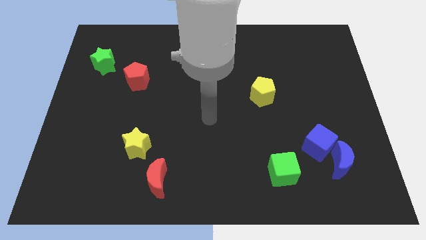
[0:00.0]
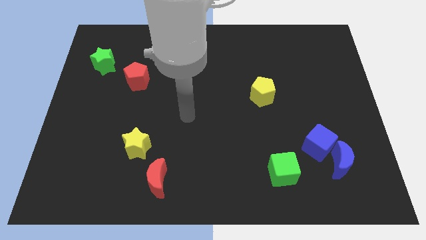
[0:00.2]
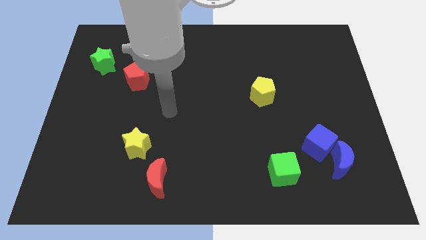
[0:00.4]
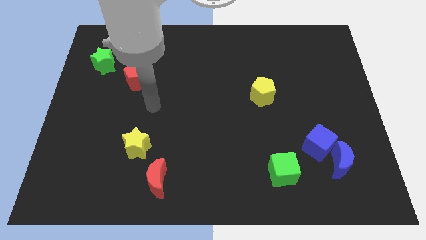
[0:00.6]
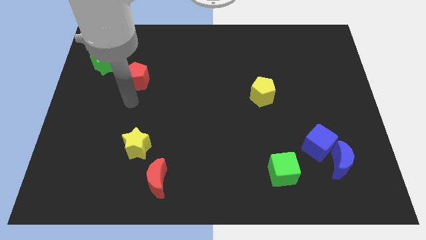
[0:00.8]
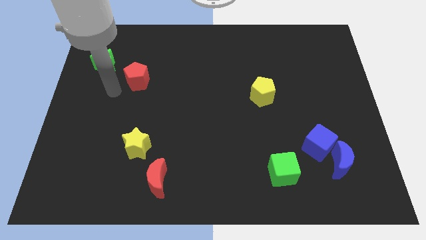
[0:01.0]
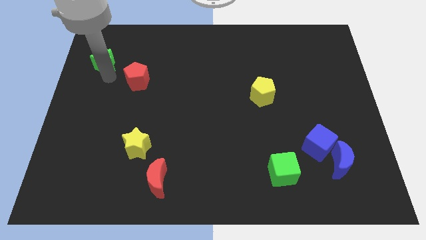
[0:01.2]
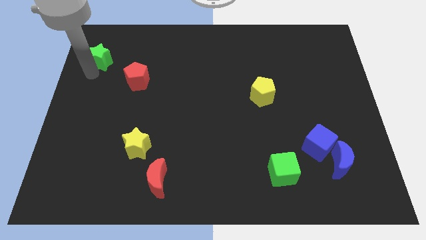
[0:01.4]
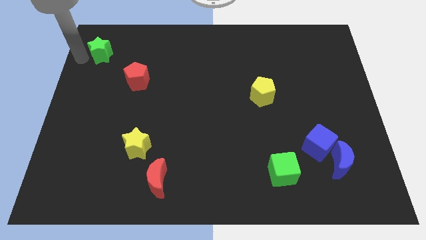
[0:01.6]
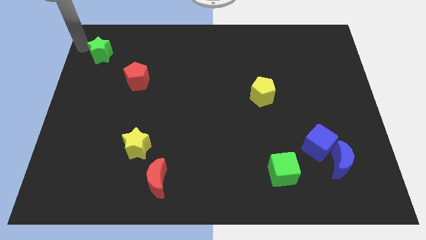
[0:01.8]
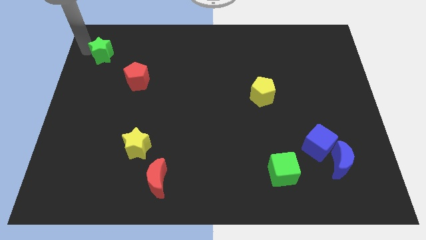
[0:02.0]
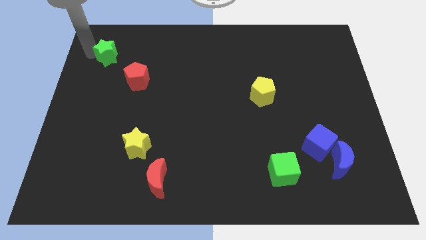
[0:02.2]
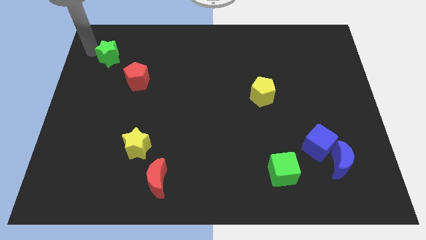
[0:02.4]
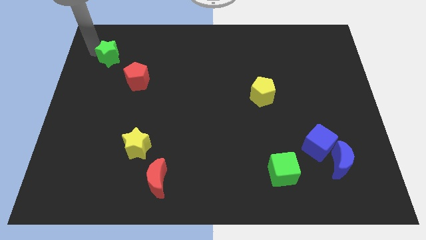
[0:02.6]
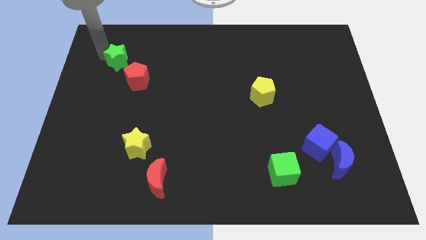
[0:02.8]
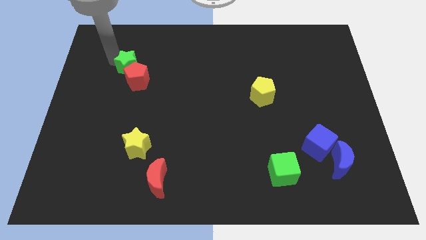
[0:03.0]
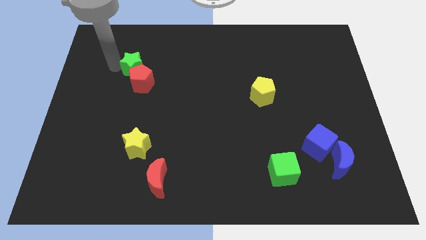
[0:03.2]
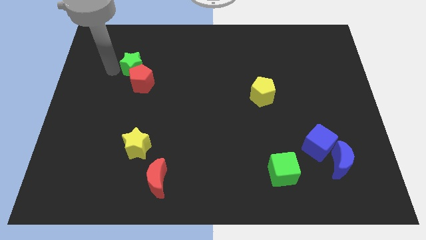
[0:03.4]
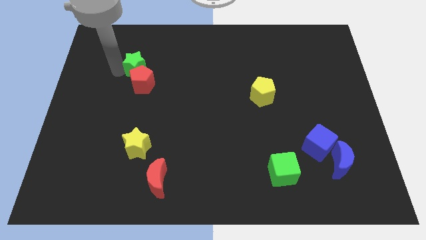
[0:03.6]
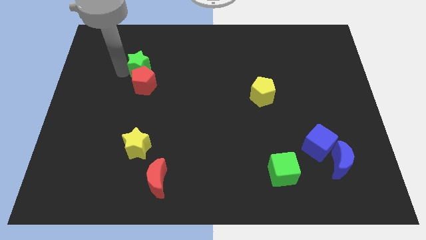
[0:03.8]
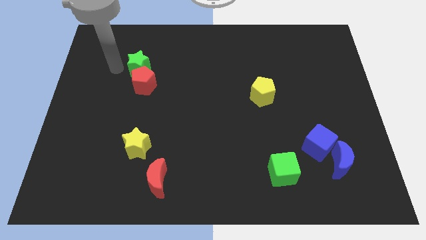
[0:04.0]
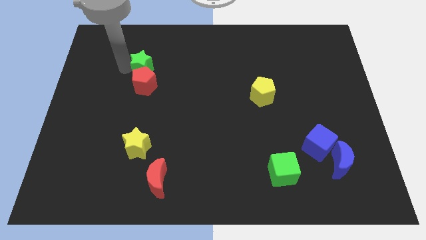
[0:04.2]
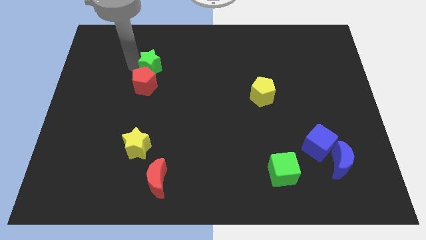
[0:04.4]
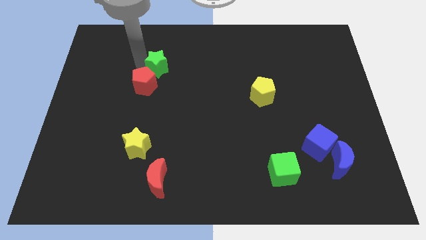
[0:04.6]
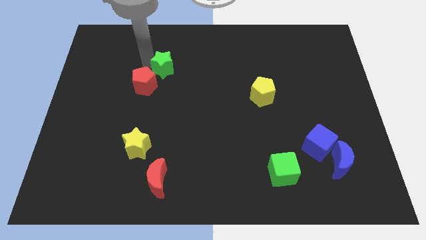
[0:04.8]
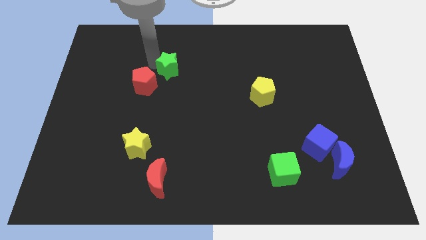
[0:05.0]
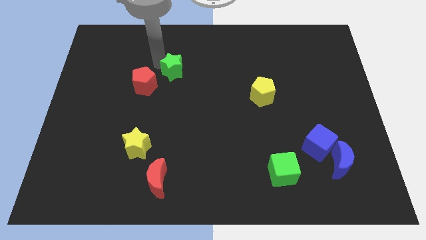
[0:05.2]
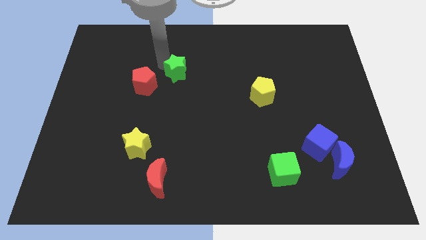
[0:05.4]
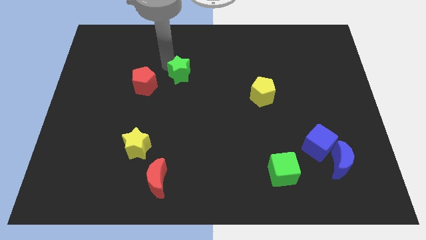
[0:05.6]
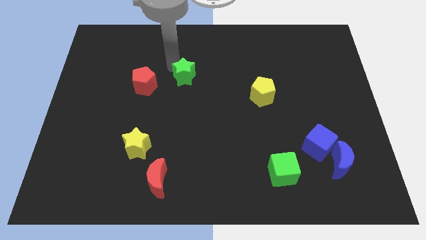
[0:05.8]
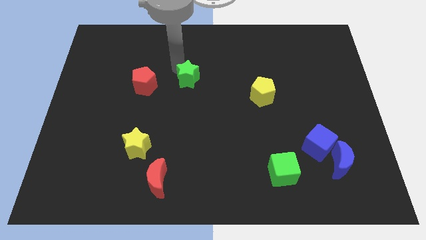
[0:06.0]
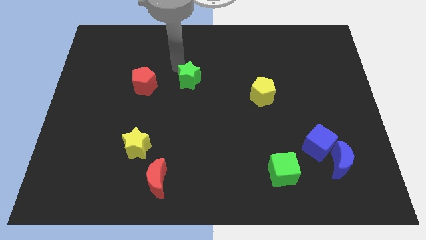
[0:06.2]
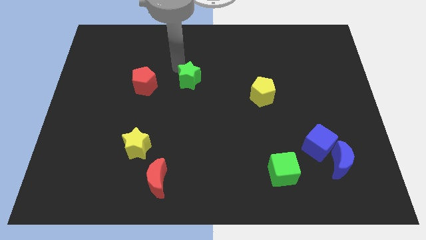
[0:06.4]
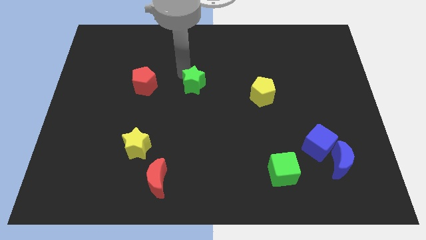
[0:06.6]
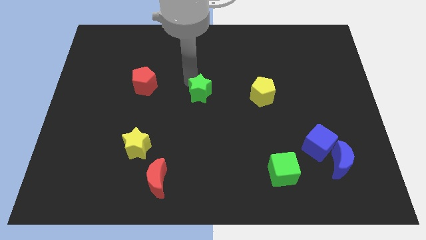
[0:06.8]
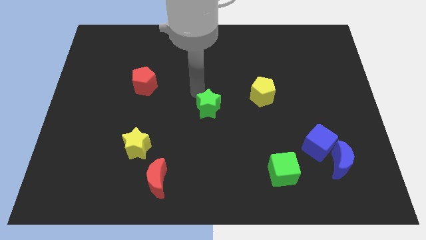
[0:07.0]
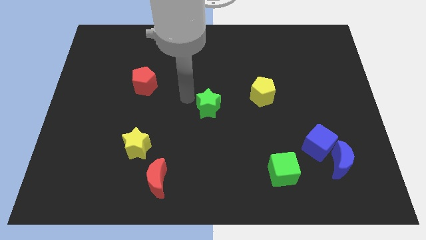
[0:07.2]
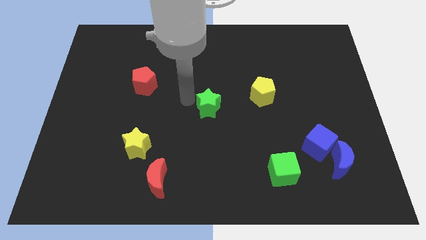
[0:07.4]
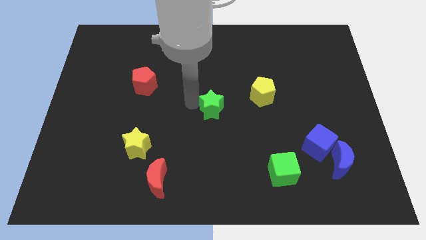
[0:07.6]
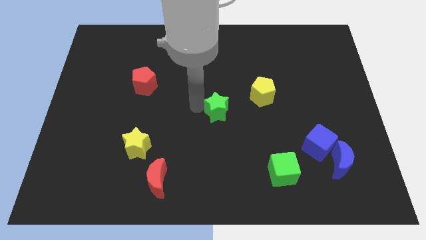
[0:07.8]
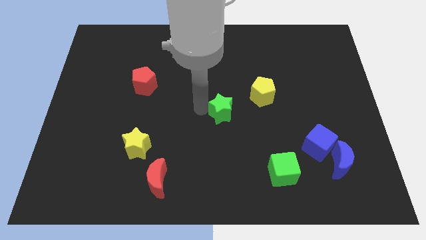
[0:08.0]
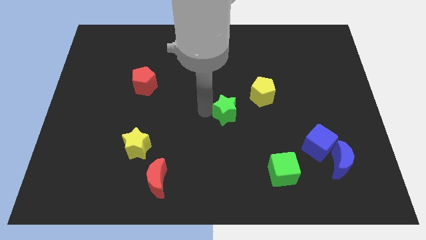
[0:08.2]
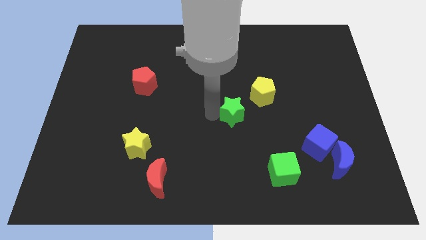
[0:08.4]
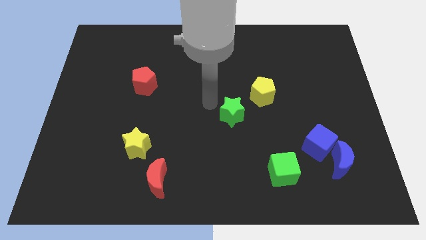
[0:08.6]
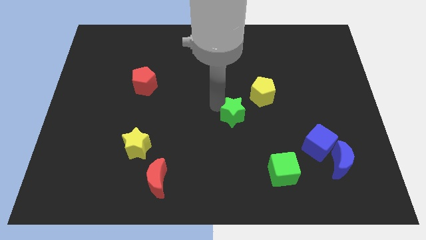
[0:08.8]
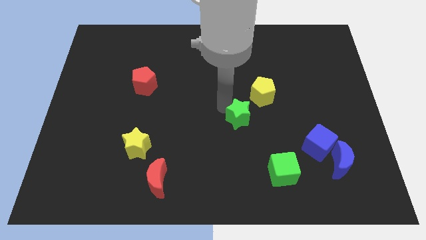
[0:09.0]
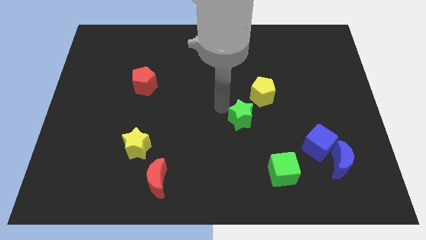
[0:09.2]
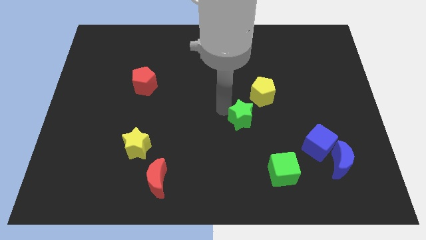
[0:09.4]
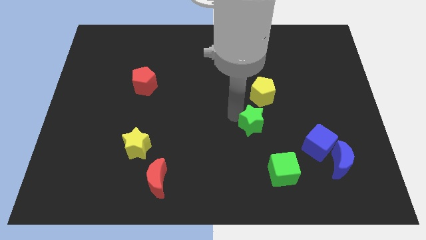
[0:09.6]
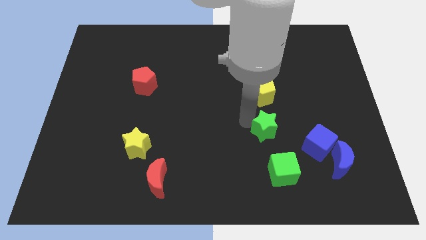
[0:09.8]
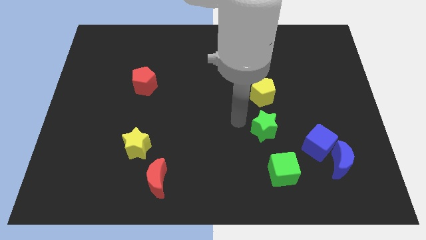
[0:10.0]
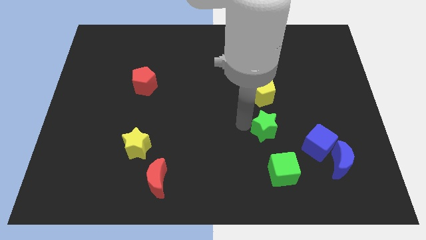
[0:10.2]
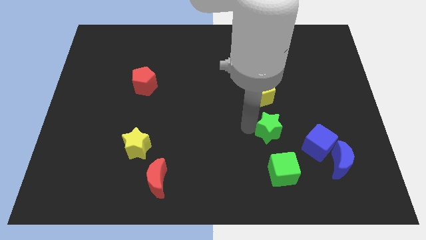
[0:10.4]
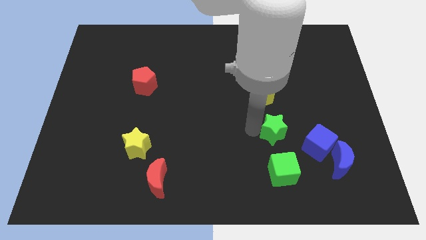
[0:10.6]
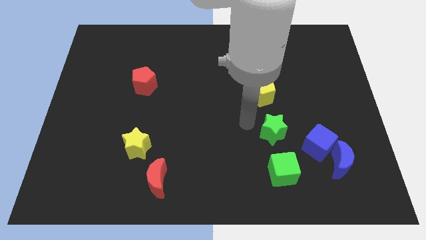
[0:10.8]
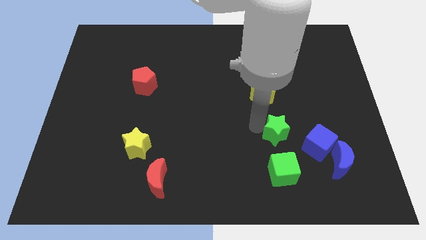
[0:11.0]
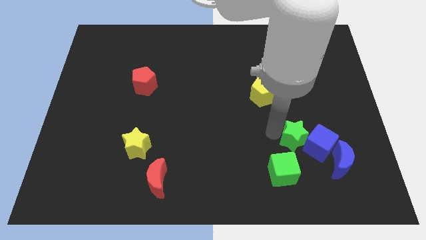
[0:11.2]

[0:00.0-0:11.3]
slide the green star close to the blue cube
